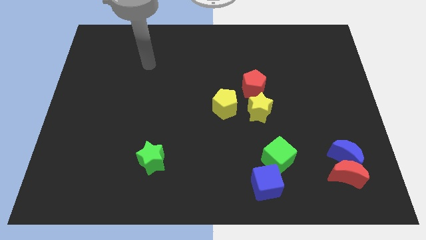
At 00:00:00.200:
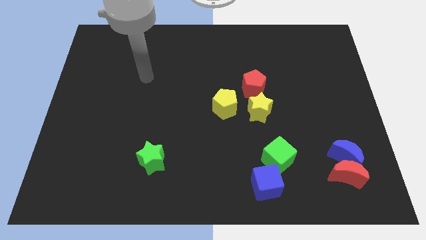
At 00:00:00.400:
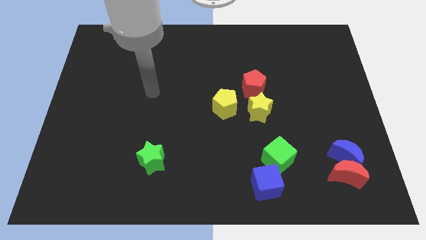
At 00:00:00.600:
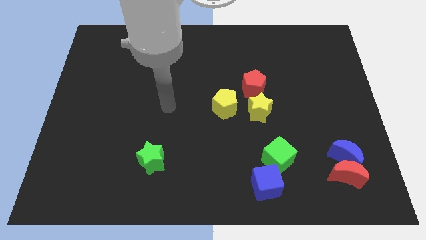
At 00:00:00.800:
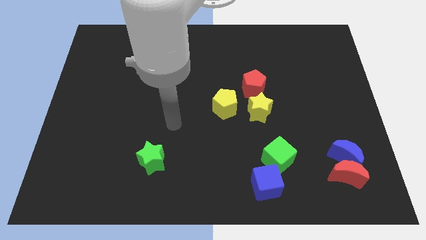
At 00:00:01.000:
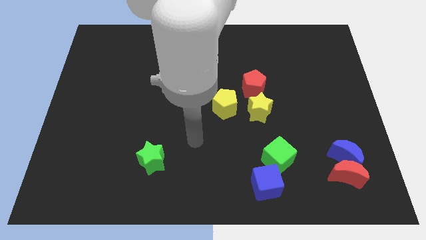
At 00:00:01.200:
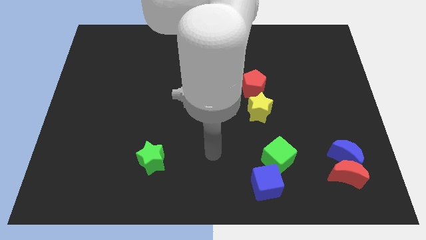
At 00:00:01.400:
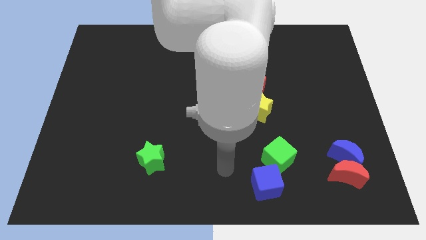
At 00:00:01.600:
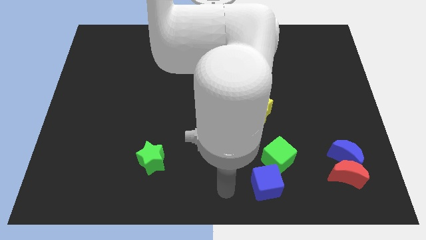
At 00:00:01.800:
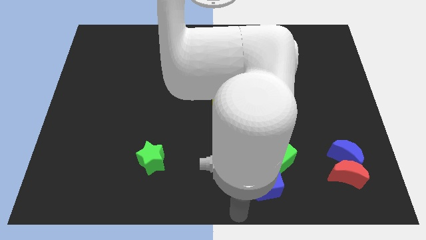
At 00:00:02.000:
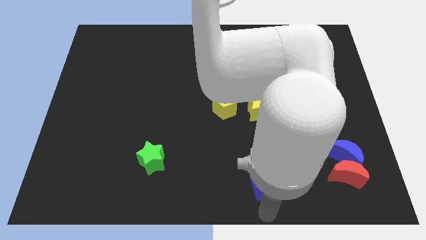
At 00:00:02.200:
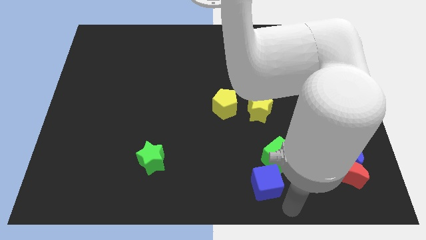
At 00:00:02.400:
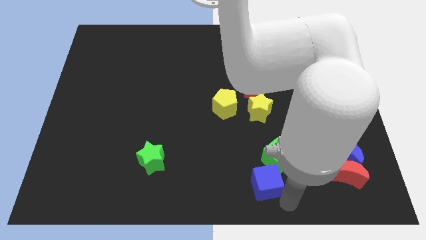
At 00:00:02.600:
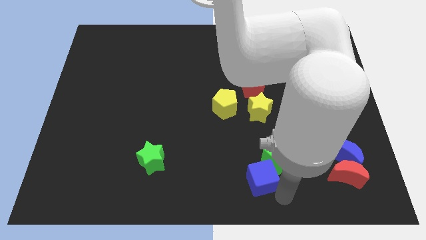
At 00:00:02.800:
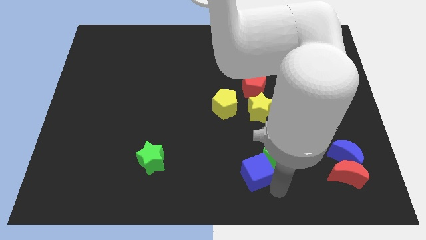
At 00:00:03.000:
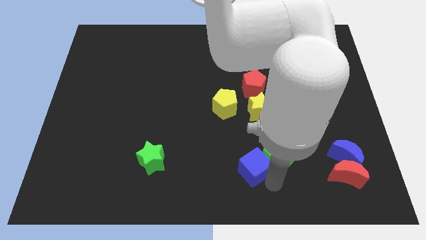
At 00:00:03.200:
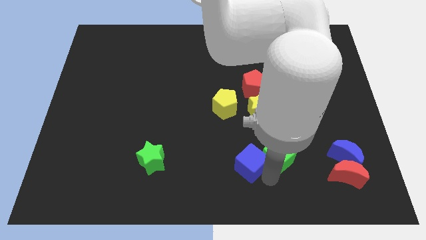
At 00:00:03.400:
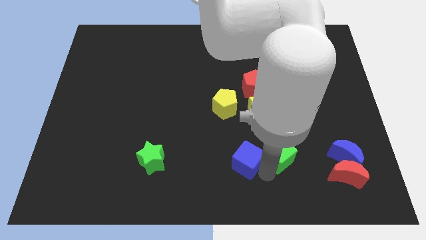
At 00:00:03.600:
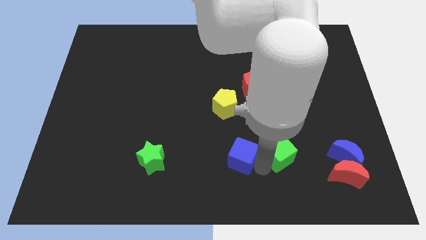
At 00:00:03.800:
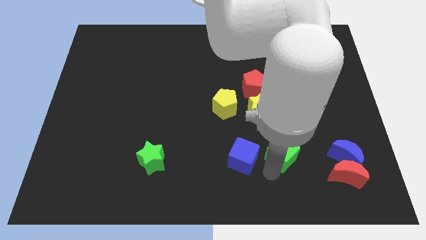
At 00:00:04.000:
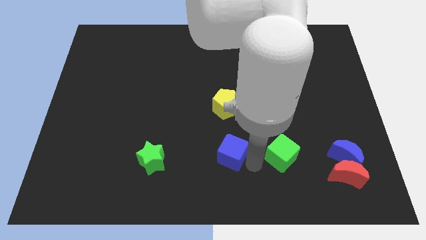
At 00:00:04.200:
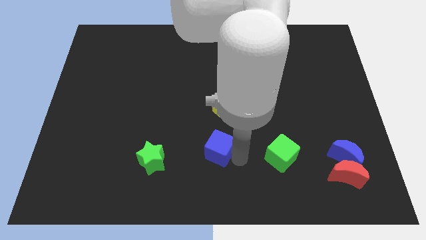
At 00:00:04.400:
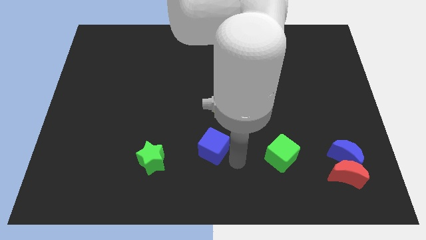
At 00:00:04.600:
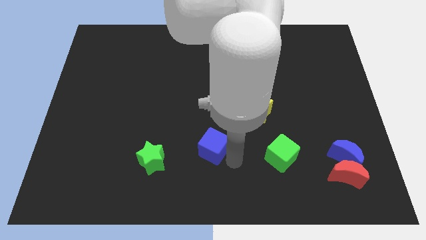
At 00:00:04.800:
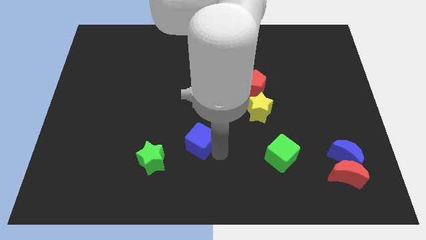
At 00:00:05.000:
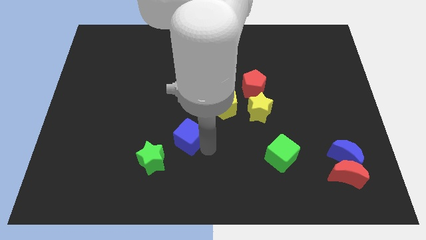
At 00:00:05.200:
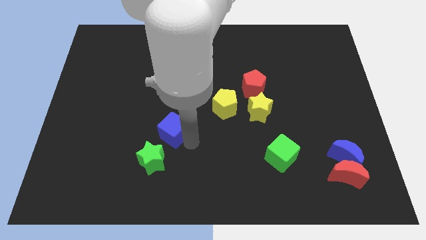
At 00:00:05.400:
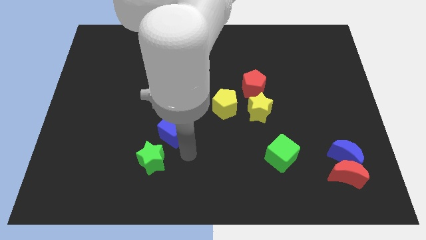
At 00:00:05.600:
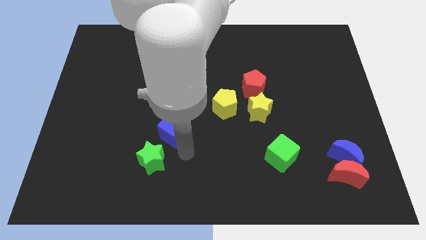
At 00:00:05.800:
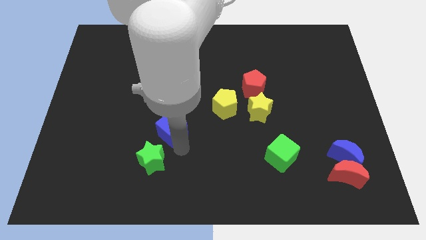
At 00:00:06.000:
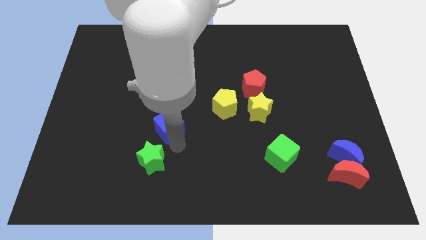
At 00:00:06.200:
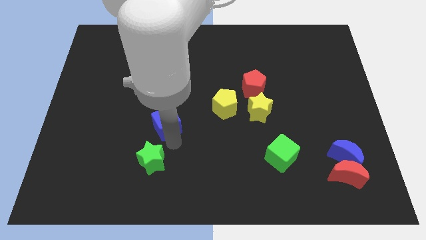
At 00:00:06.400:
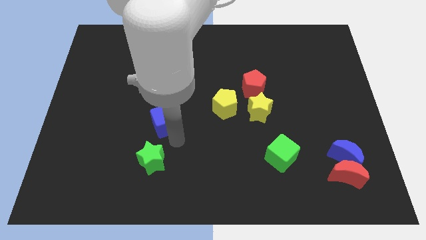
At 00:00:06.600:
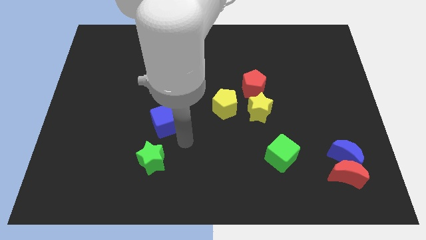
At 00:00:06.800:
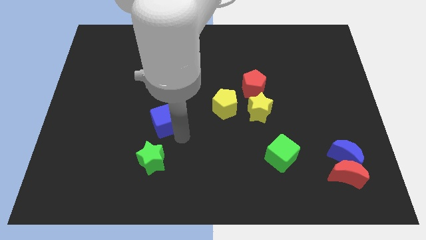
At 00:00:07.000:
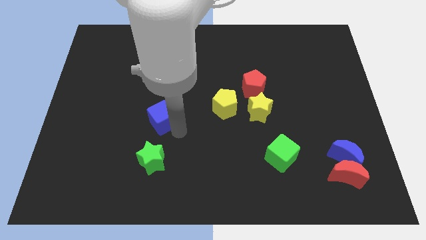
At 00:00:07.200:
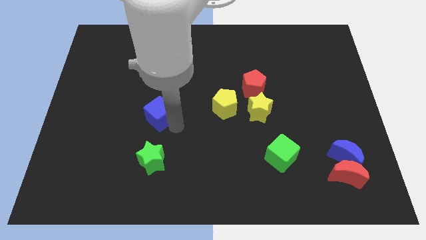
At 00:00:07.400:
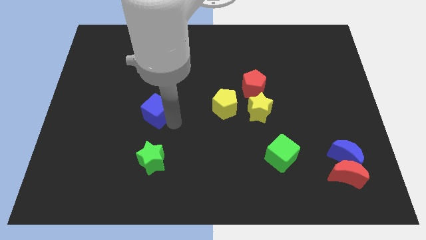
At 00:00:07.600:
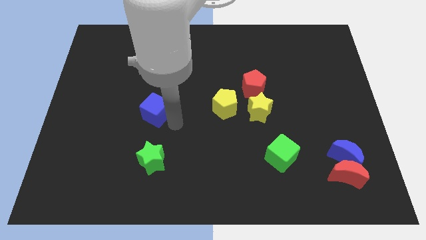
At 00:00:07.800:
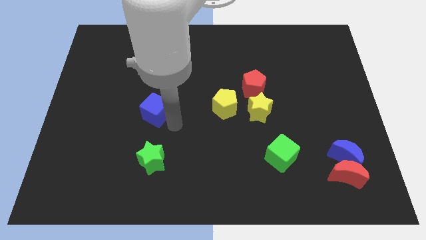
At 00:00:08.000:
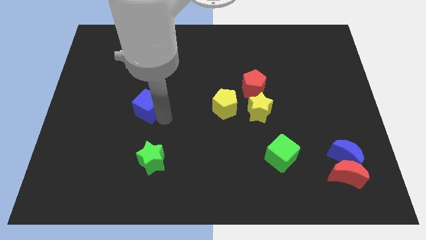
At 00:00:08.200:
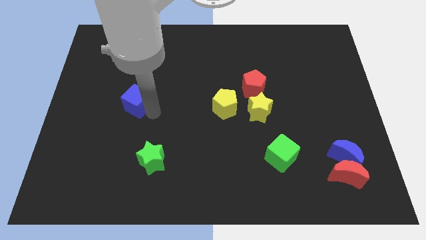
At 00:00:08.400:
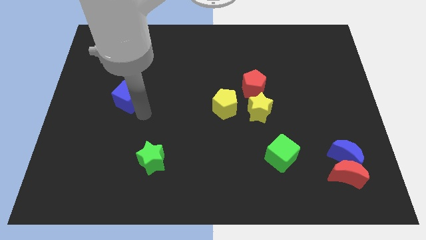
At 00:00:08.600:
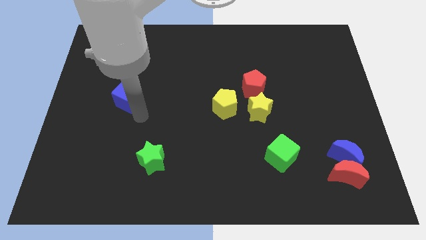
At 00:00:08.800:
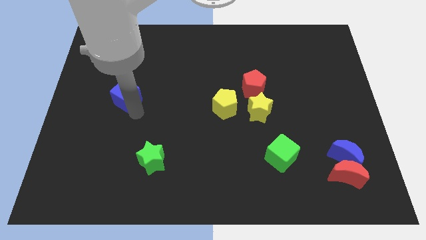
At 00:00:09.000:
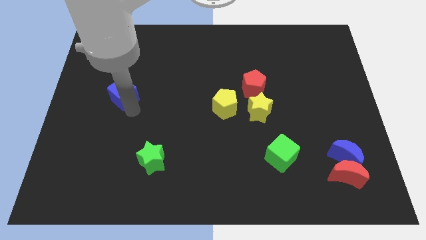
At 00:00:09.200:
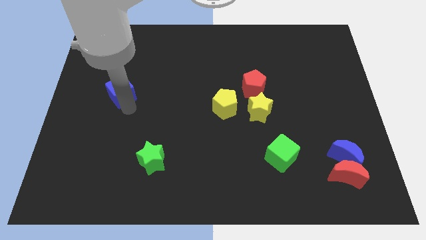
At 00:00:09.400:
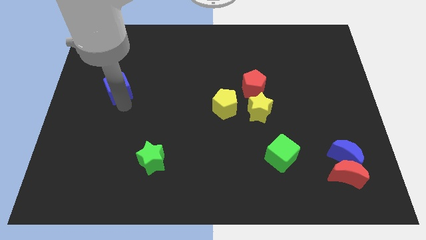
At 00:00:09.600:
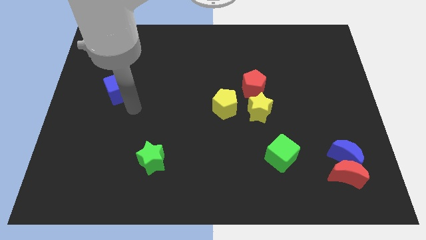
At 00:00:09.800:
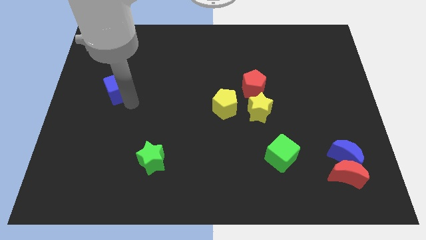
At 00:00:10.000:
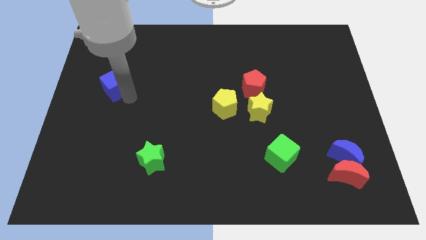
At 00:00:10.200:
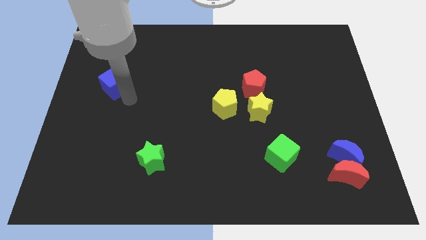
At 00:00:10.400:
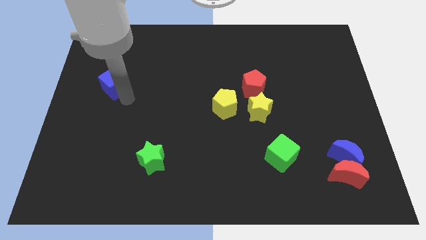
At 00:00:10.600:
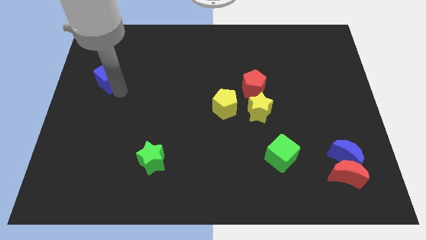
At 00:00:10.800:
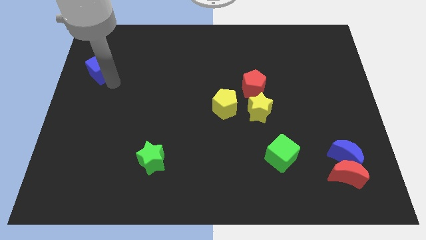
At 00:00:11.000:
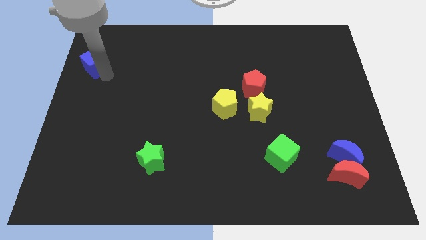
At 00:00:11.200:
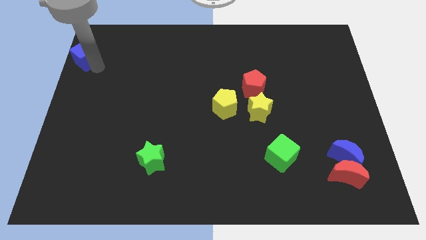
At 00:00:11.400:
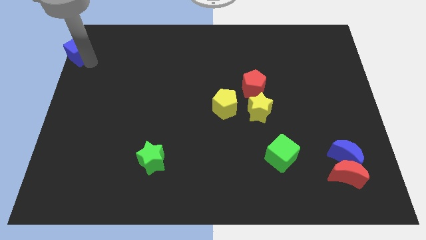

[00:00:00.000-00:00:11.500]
push the blue cube to the top left of the board

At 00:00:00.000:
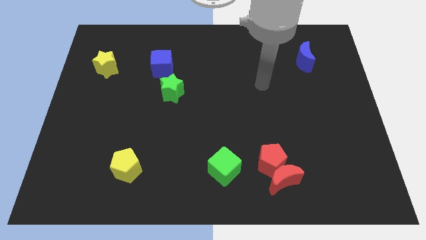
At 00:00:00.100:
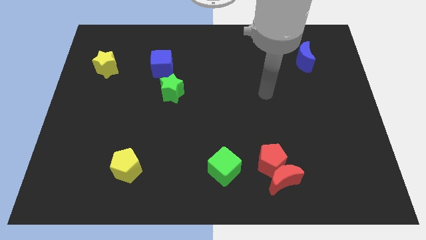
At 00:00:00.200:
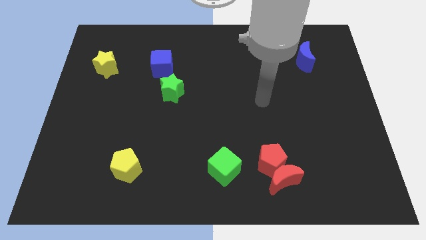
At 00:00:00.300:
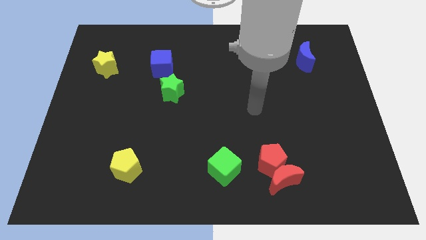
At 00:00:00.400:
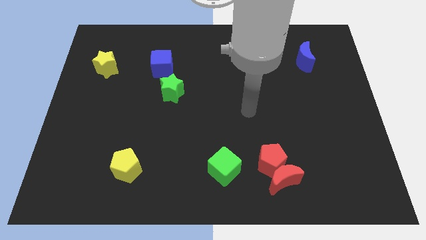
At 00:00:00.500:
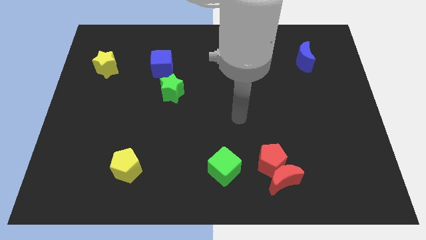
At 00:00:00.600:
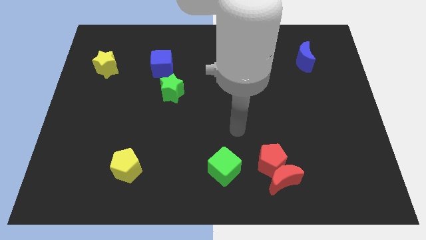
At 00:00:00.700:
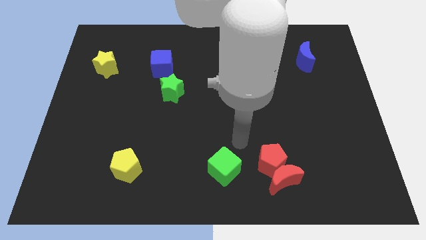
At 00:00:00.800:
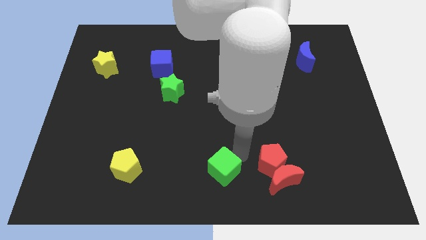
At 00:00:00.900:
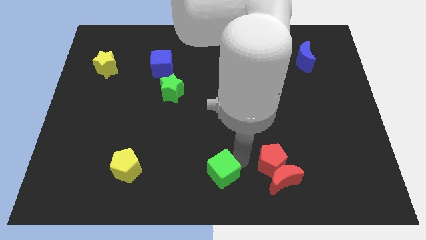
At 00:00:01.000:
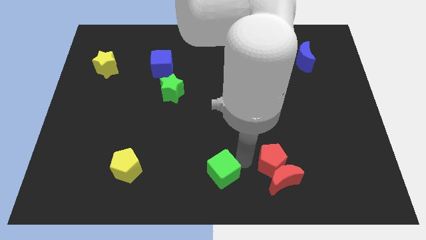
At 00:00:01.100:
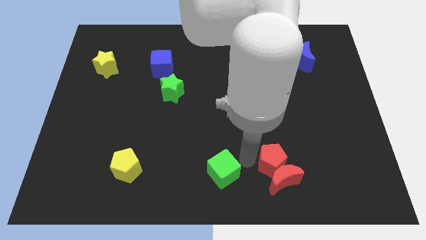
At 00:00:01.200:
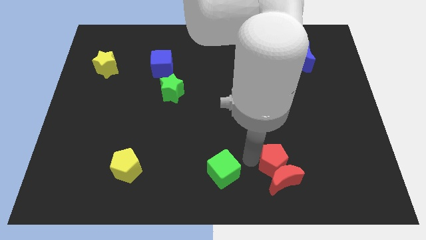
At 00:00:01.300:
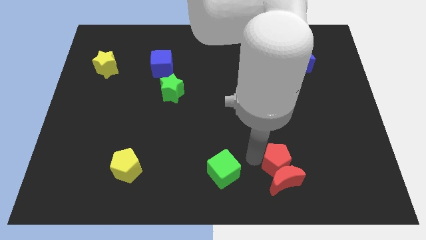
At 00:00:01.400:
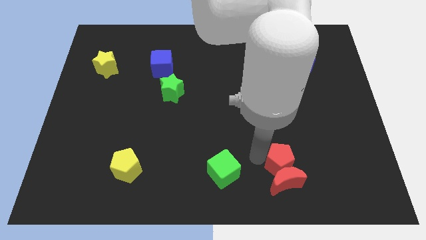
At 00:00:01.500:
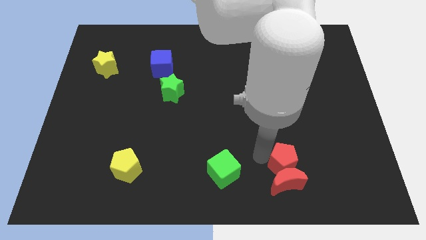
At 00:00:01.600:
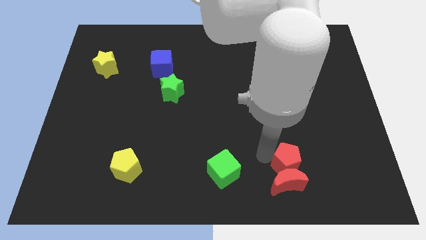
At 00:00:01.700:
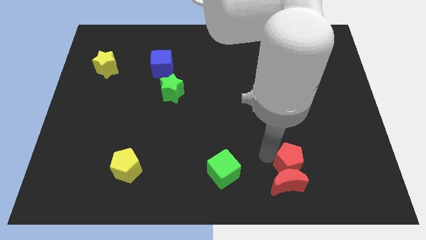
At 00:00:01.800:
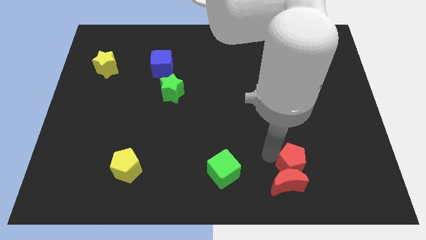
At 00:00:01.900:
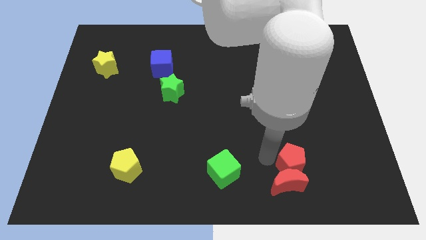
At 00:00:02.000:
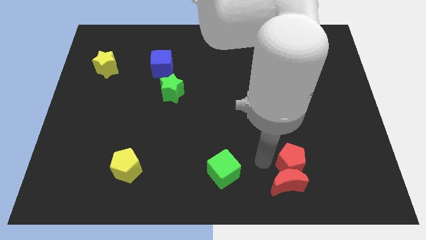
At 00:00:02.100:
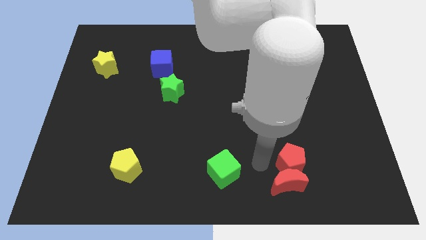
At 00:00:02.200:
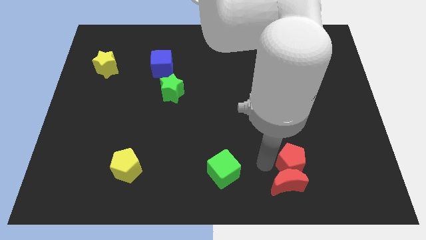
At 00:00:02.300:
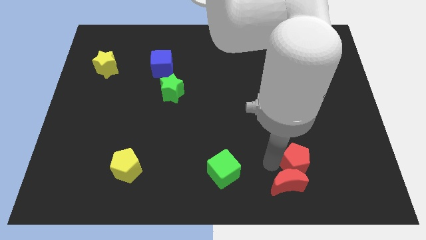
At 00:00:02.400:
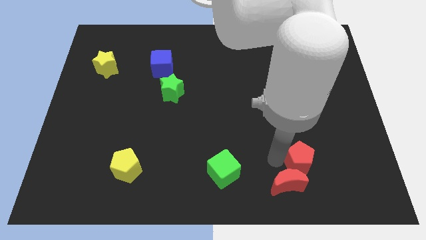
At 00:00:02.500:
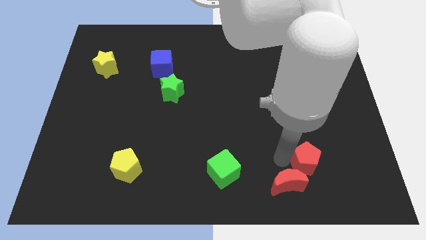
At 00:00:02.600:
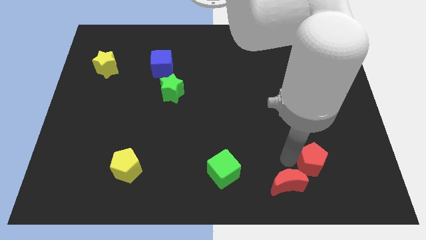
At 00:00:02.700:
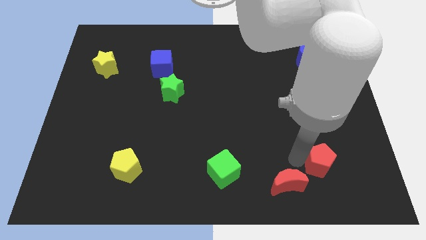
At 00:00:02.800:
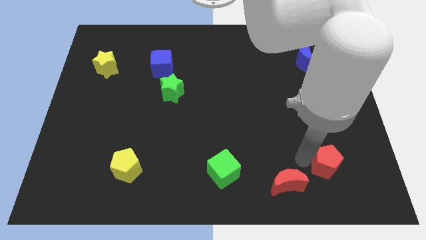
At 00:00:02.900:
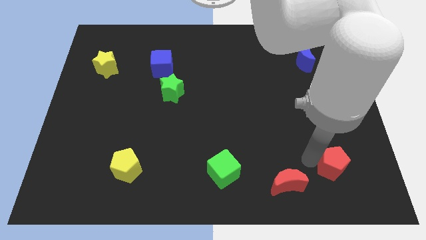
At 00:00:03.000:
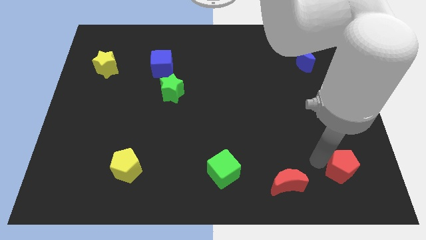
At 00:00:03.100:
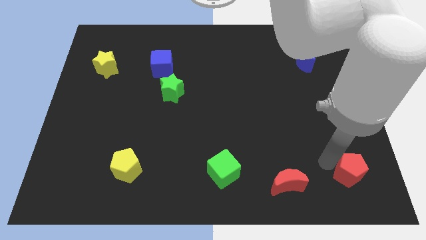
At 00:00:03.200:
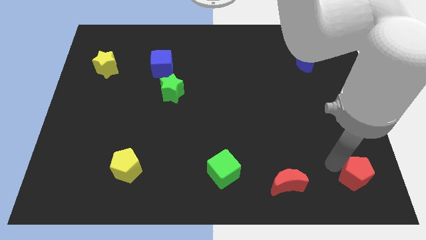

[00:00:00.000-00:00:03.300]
move the red pentagon to the bottom right of the board
